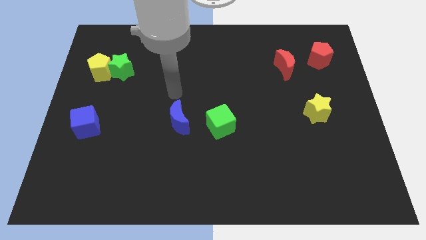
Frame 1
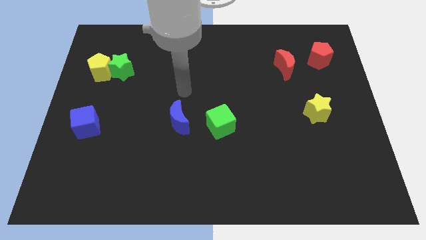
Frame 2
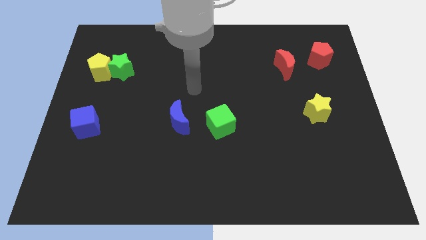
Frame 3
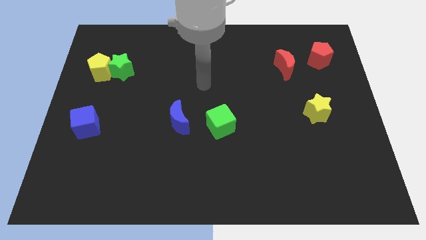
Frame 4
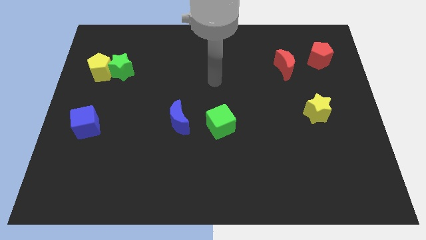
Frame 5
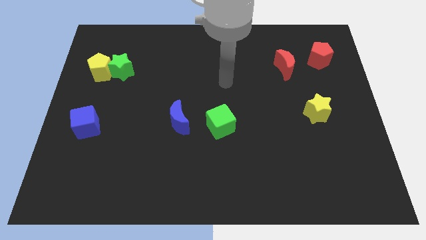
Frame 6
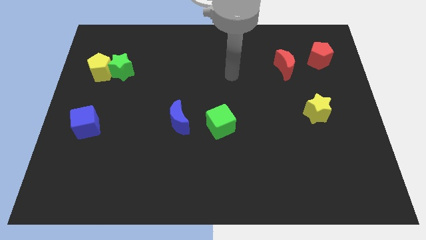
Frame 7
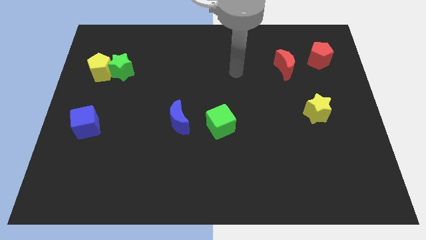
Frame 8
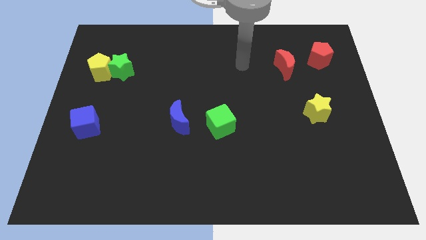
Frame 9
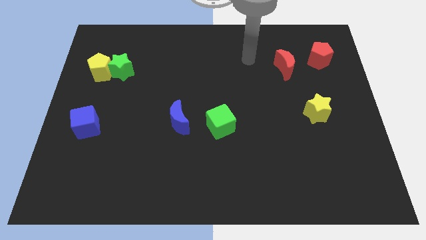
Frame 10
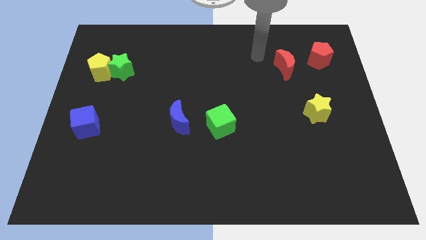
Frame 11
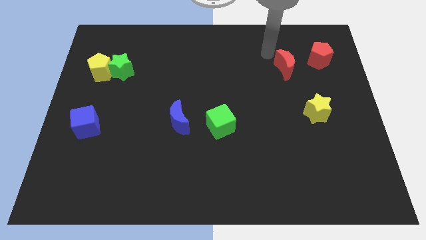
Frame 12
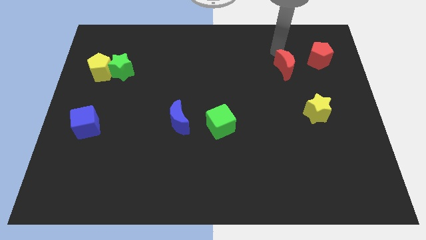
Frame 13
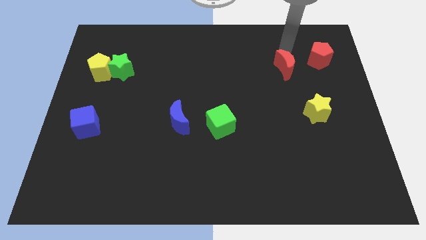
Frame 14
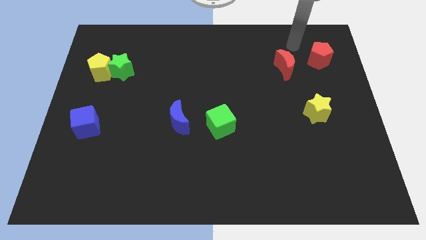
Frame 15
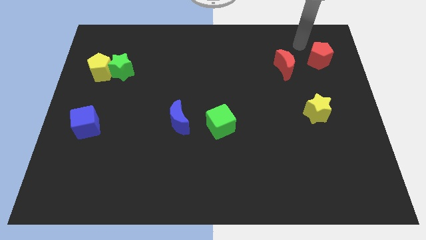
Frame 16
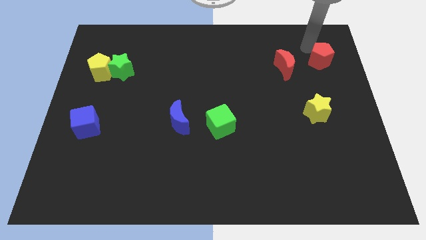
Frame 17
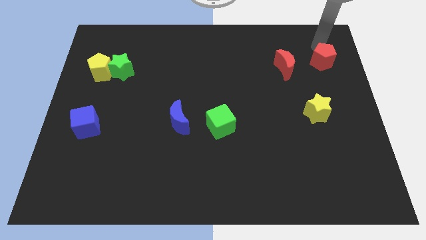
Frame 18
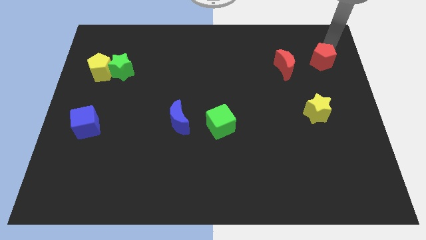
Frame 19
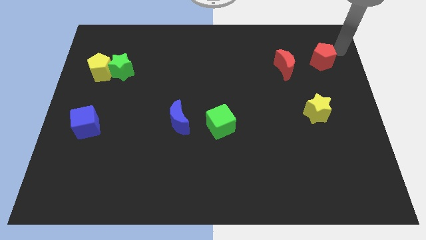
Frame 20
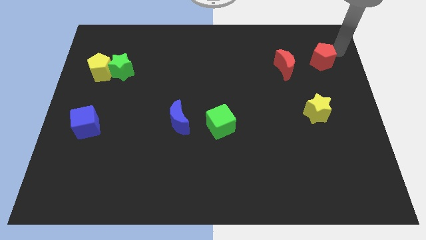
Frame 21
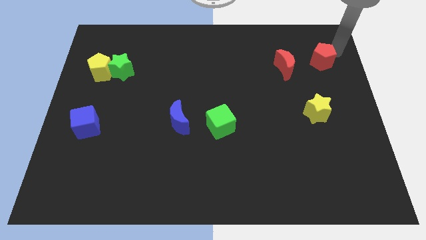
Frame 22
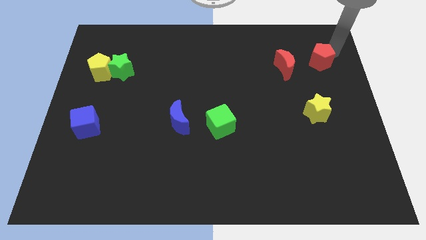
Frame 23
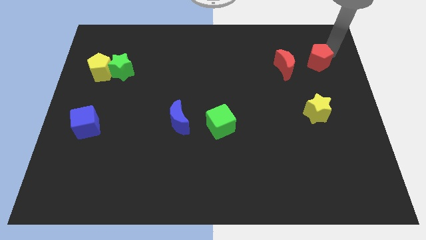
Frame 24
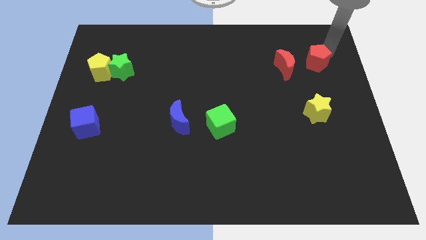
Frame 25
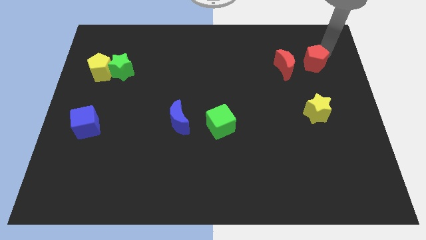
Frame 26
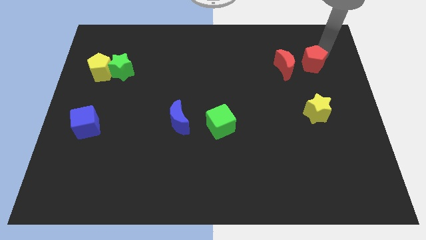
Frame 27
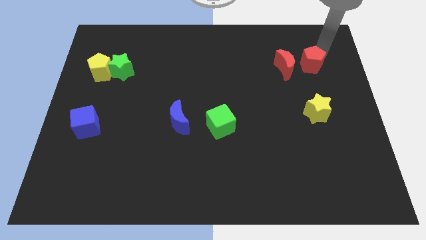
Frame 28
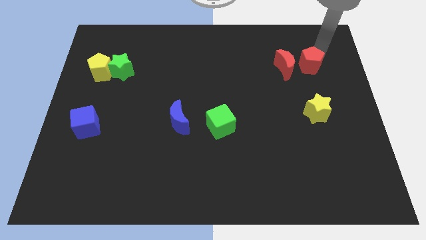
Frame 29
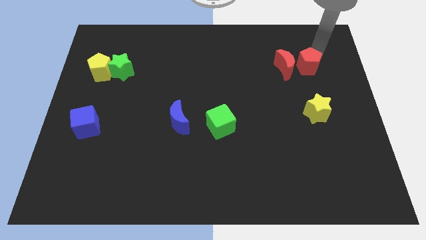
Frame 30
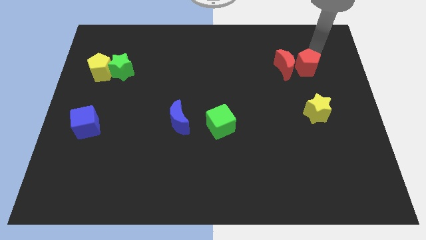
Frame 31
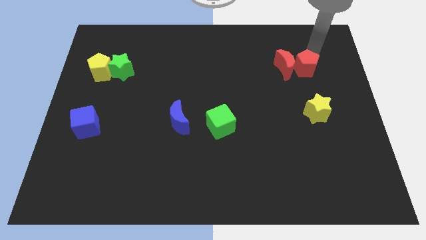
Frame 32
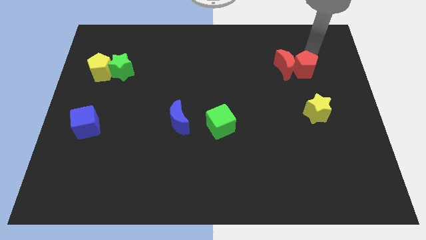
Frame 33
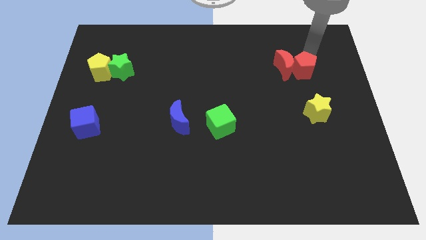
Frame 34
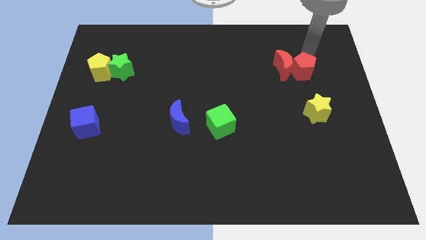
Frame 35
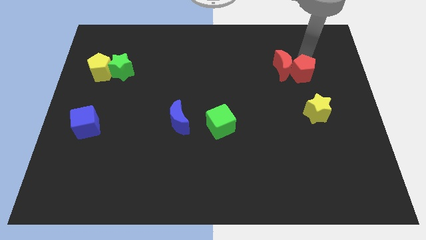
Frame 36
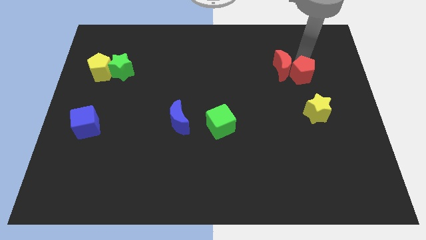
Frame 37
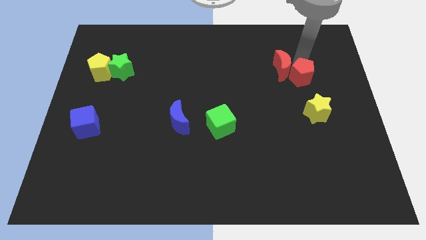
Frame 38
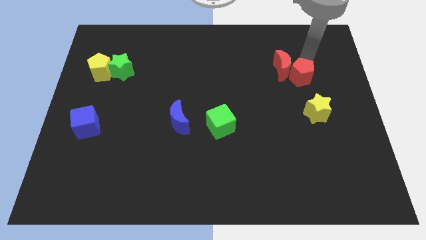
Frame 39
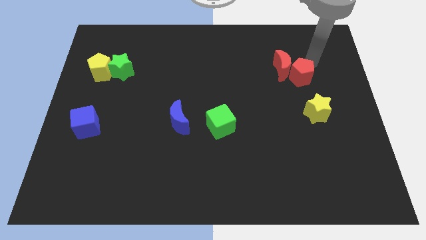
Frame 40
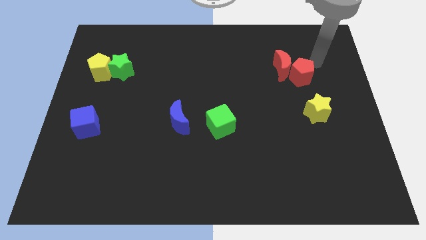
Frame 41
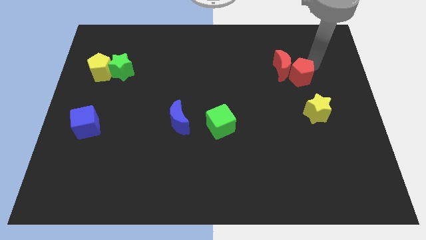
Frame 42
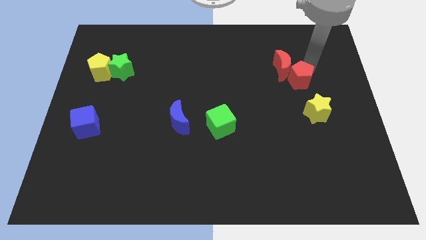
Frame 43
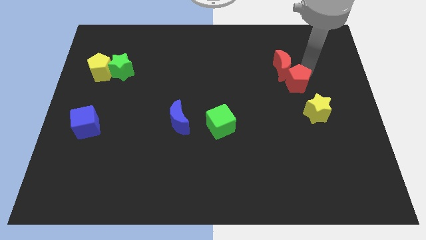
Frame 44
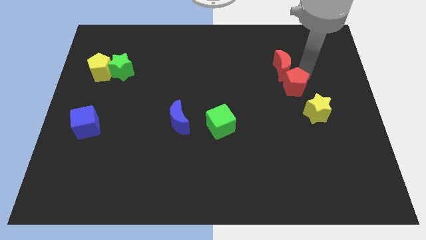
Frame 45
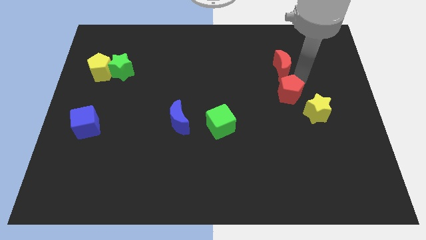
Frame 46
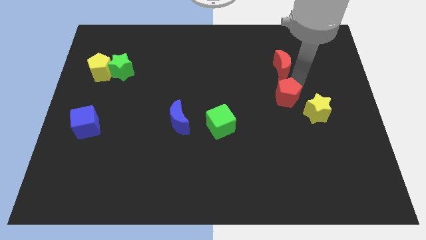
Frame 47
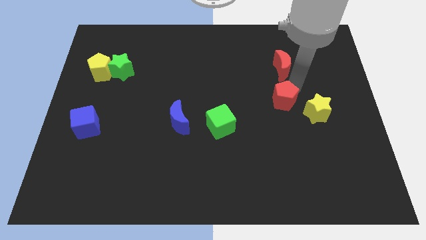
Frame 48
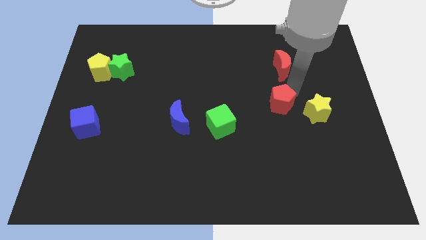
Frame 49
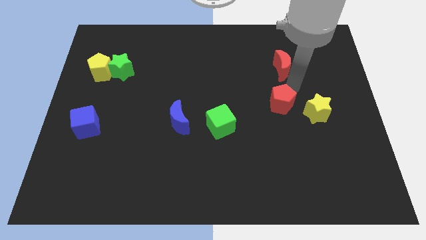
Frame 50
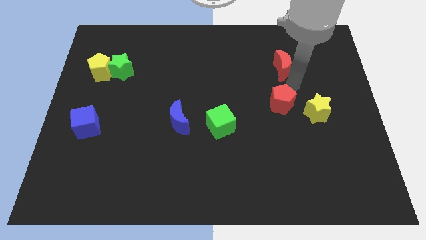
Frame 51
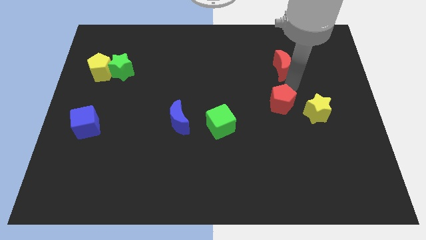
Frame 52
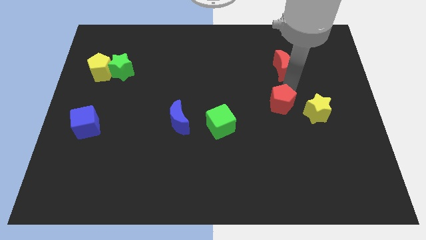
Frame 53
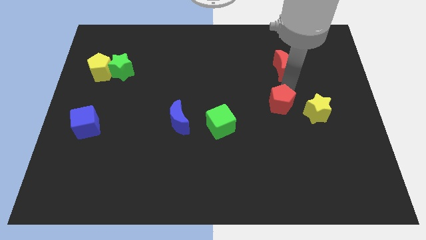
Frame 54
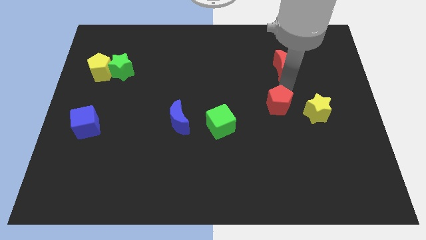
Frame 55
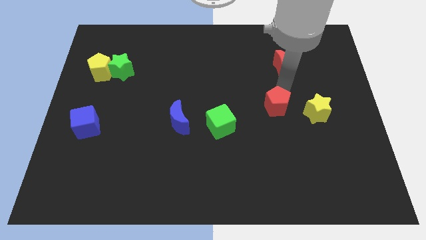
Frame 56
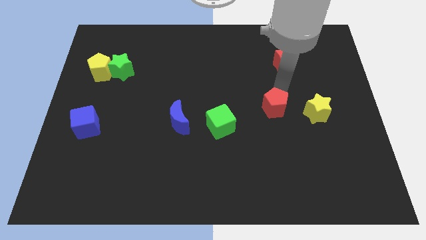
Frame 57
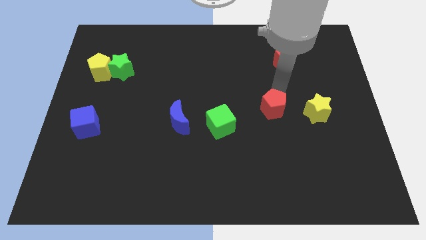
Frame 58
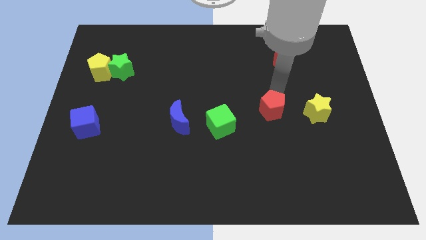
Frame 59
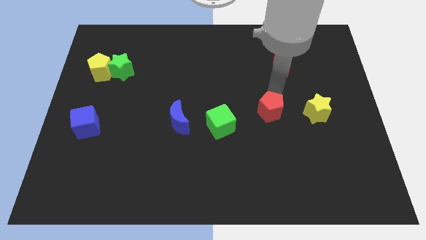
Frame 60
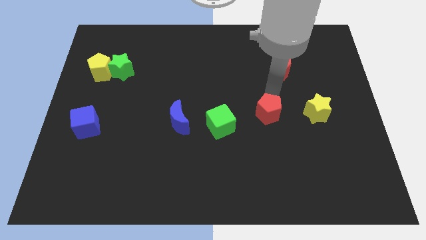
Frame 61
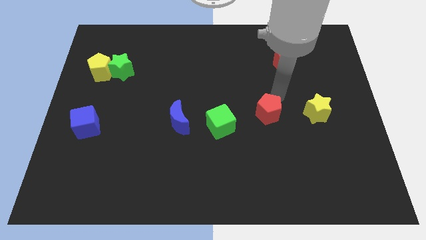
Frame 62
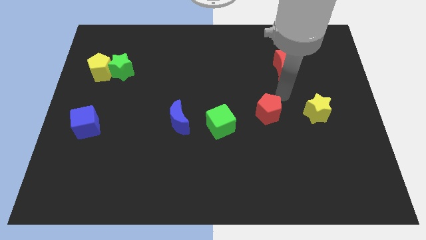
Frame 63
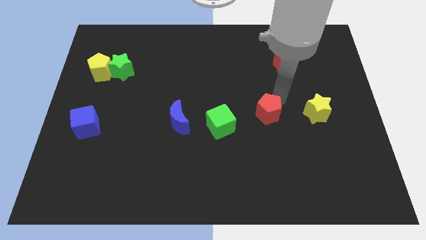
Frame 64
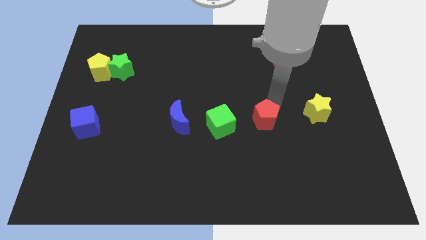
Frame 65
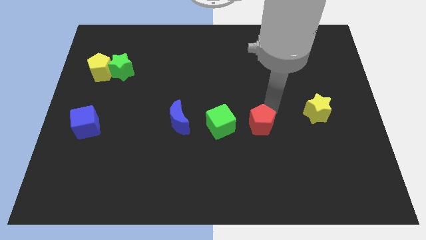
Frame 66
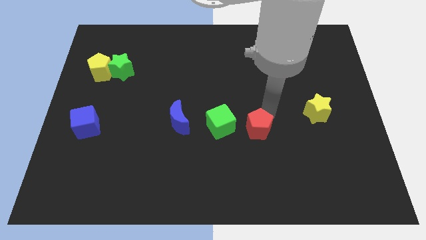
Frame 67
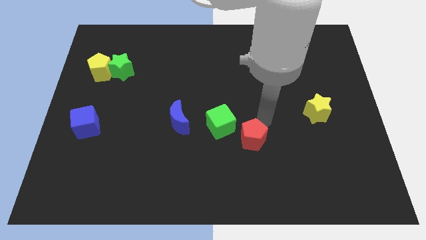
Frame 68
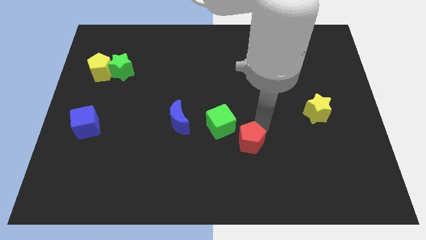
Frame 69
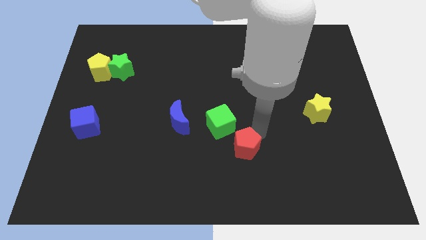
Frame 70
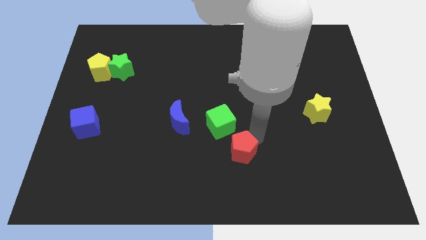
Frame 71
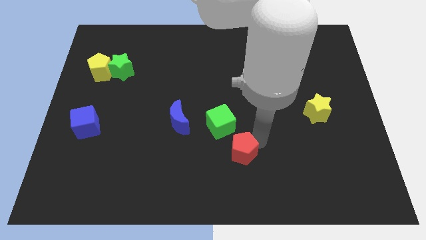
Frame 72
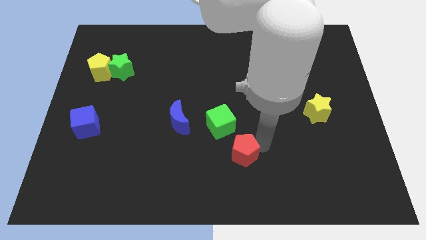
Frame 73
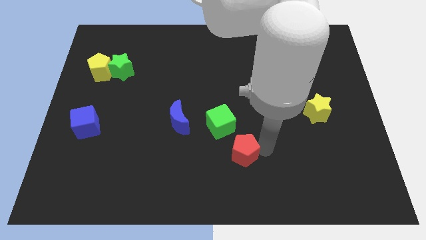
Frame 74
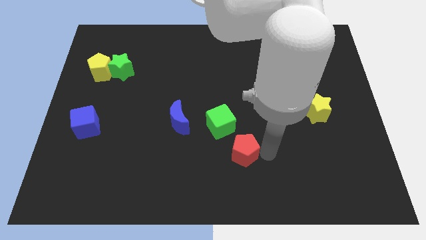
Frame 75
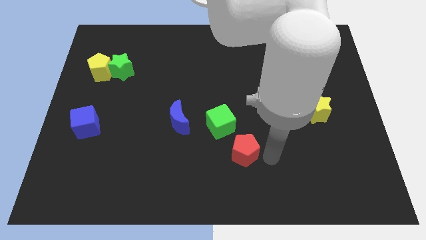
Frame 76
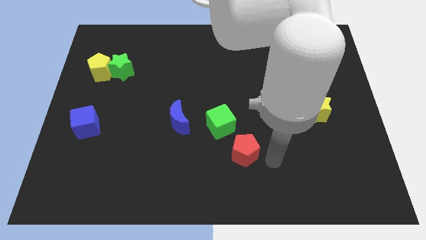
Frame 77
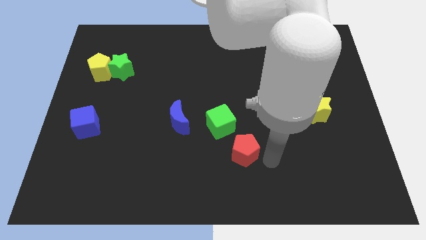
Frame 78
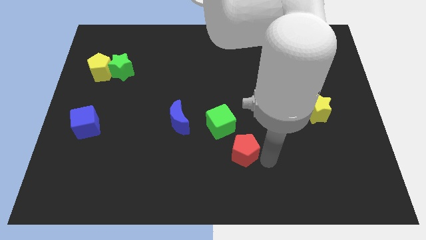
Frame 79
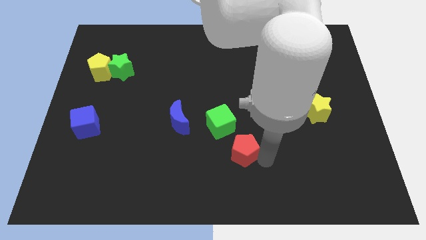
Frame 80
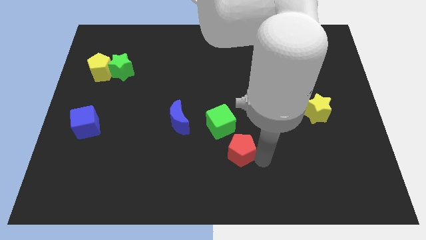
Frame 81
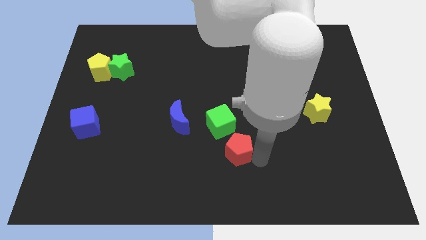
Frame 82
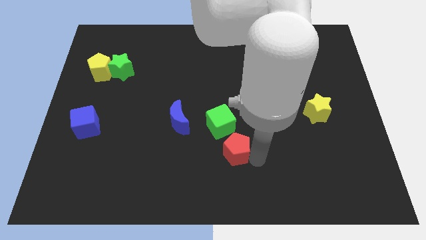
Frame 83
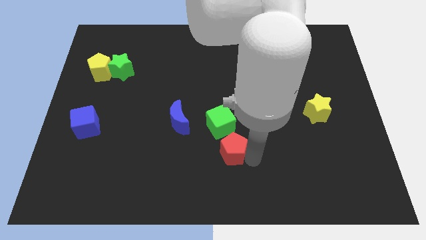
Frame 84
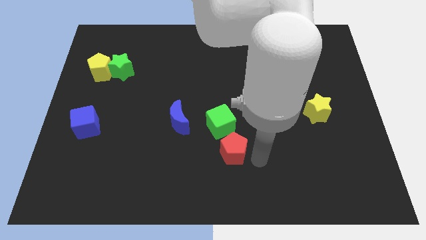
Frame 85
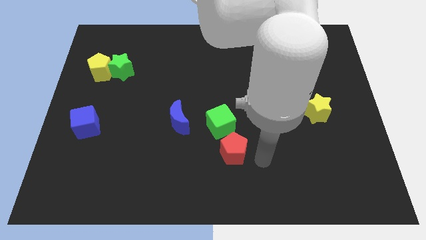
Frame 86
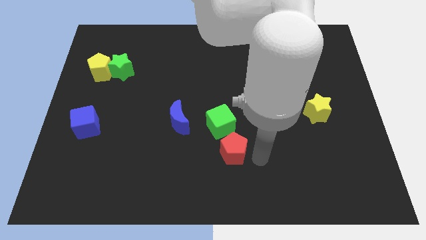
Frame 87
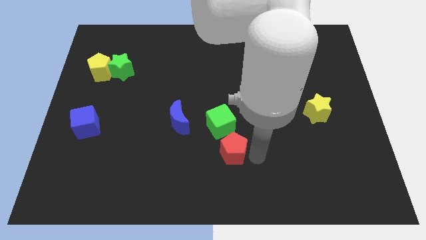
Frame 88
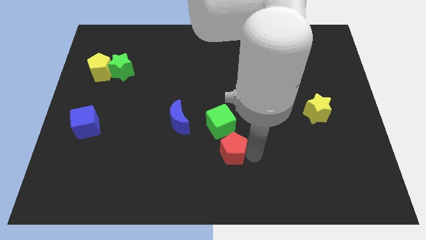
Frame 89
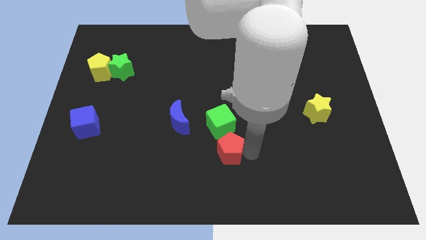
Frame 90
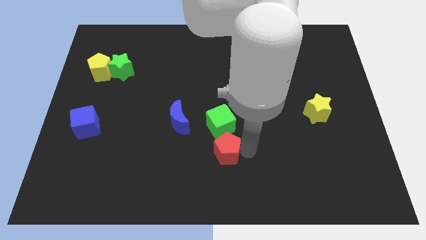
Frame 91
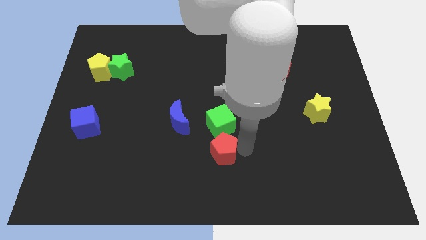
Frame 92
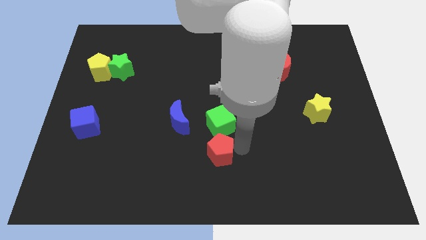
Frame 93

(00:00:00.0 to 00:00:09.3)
put the red pentagon diagonally down and to the right of the blue moon
